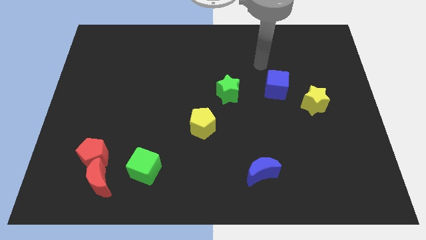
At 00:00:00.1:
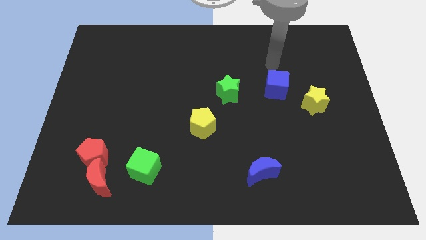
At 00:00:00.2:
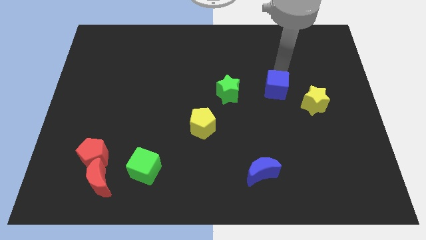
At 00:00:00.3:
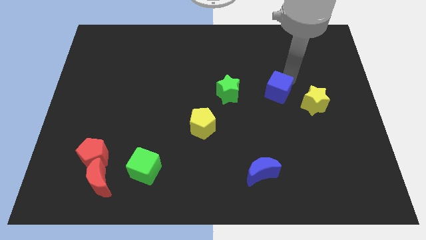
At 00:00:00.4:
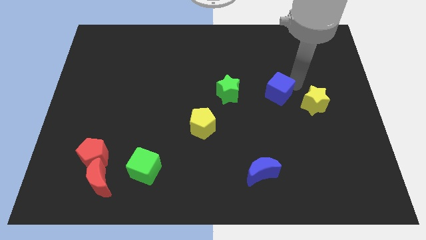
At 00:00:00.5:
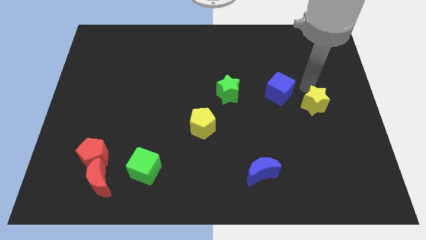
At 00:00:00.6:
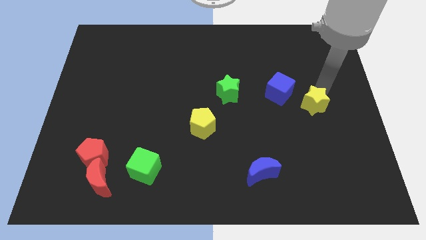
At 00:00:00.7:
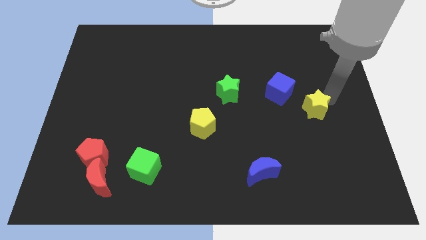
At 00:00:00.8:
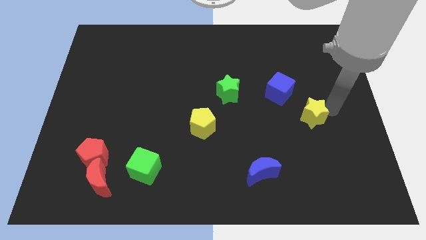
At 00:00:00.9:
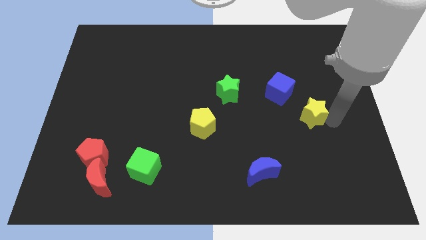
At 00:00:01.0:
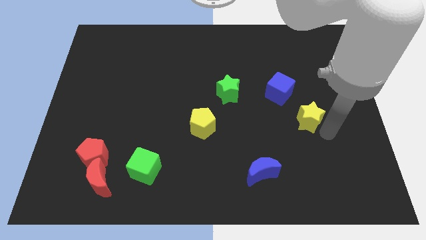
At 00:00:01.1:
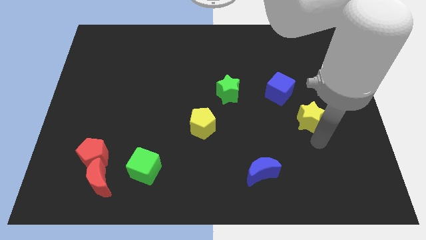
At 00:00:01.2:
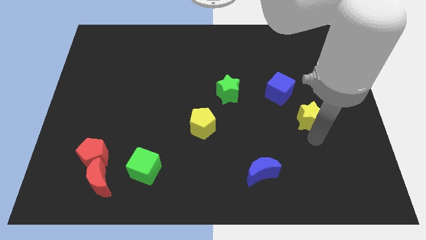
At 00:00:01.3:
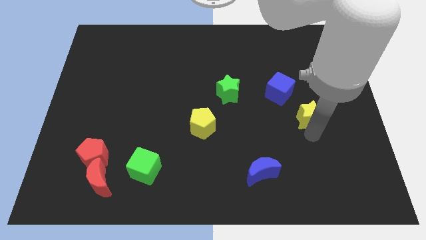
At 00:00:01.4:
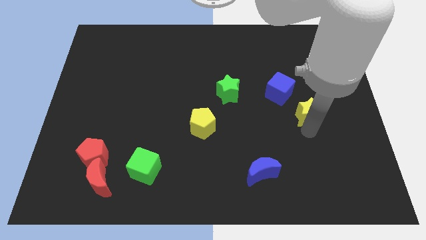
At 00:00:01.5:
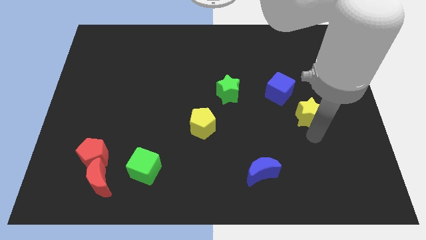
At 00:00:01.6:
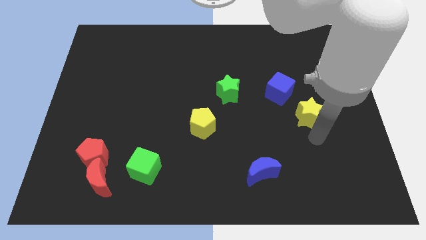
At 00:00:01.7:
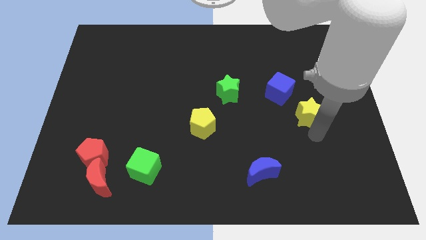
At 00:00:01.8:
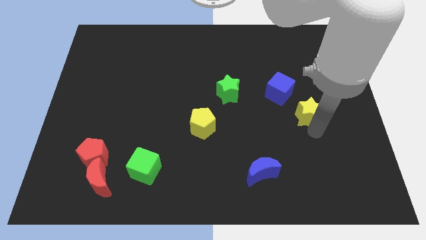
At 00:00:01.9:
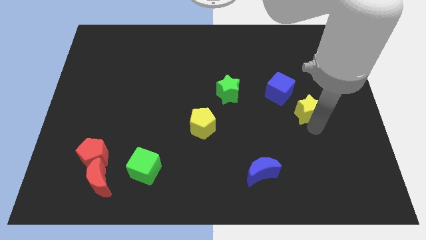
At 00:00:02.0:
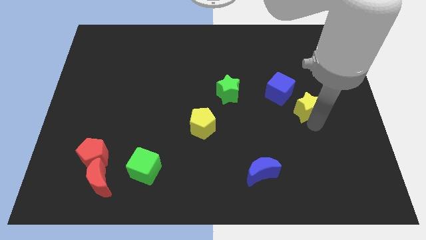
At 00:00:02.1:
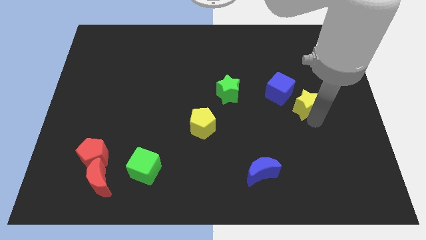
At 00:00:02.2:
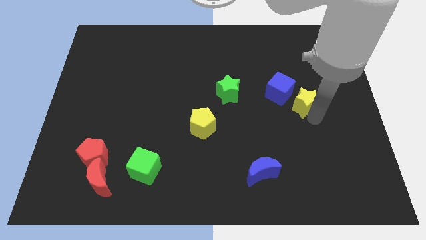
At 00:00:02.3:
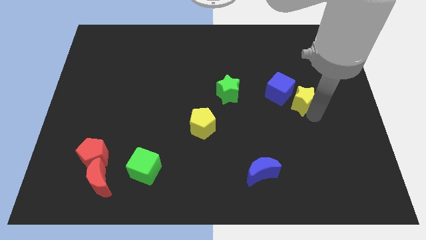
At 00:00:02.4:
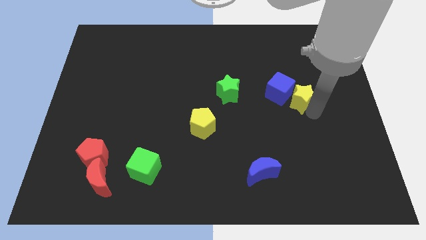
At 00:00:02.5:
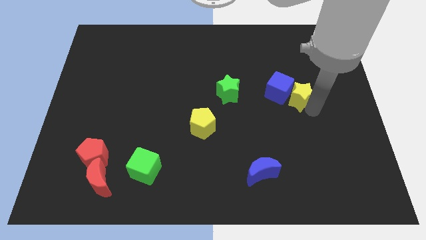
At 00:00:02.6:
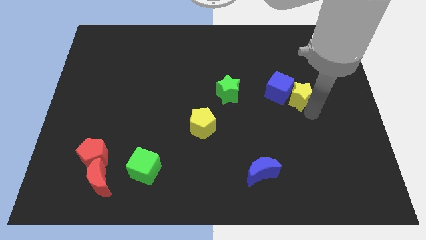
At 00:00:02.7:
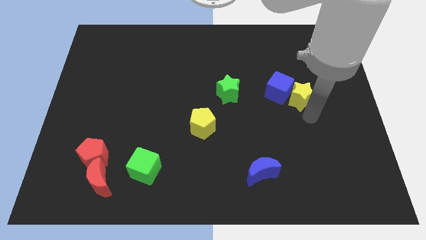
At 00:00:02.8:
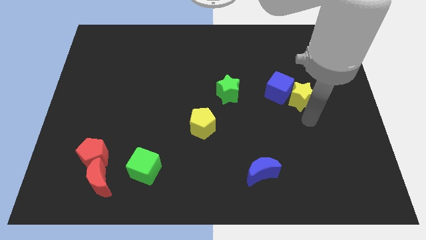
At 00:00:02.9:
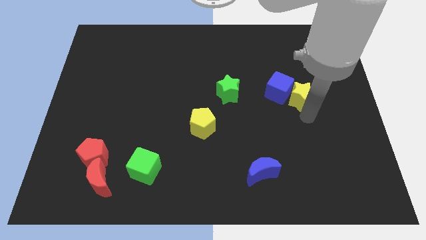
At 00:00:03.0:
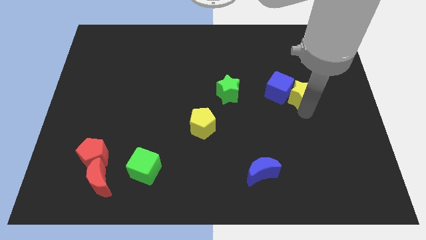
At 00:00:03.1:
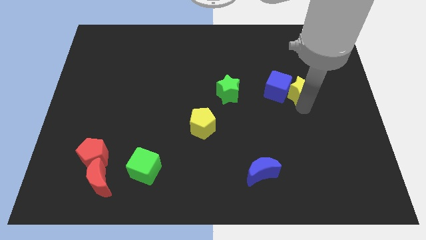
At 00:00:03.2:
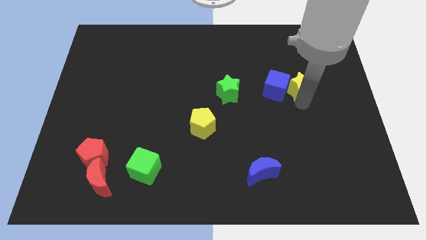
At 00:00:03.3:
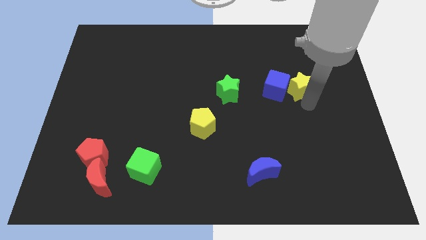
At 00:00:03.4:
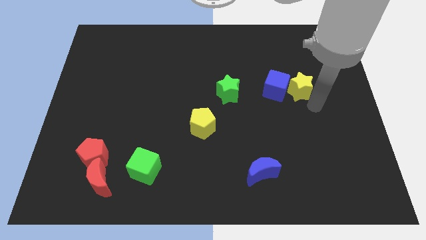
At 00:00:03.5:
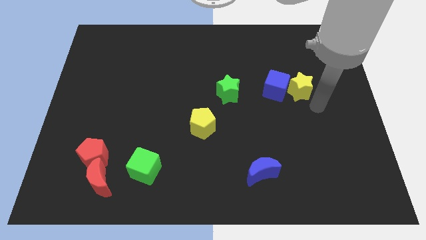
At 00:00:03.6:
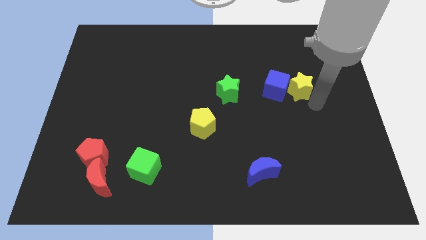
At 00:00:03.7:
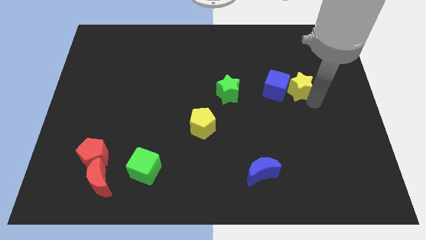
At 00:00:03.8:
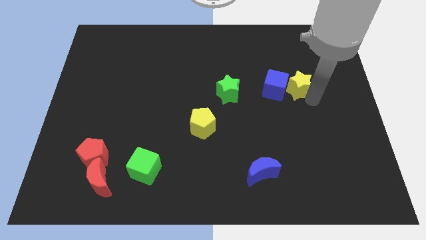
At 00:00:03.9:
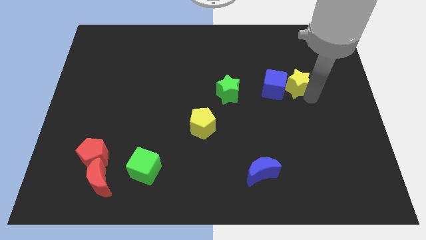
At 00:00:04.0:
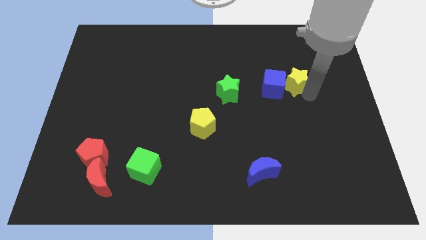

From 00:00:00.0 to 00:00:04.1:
slightly slide the yellow star diagonally up and left

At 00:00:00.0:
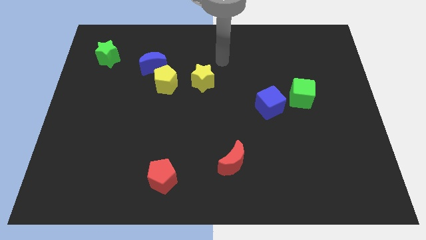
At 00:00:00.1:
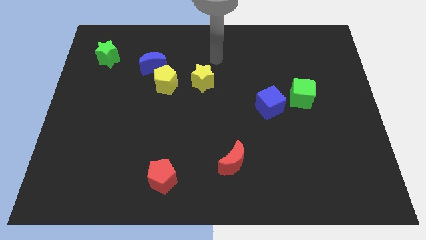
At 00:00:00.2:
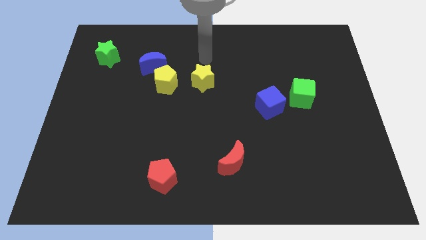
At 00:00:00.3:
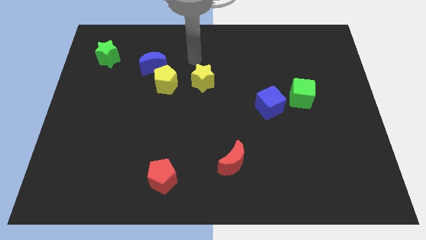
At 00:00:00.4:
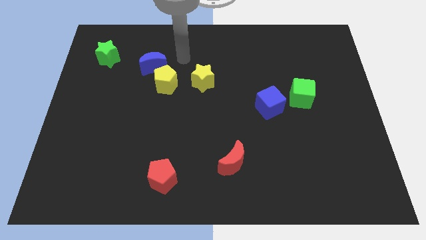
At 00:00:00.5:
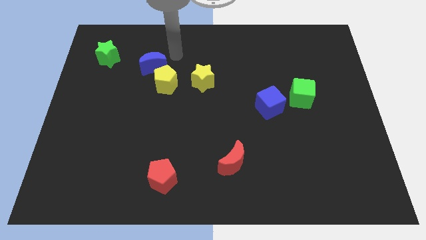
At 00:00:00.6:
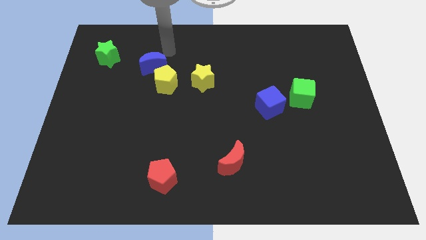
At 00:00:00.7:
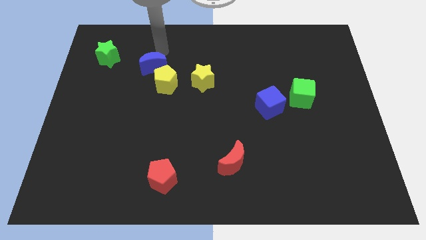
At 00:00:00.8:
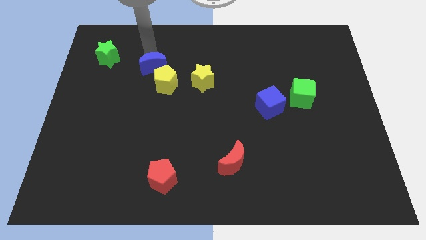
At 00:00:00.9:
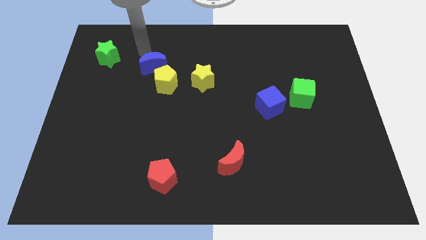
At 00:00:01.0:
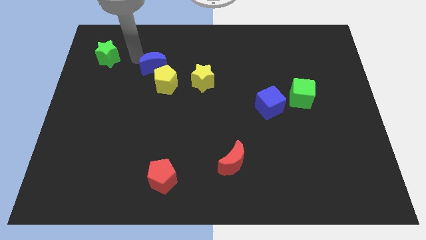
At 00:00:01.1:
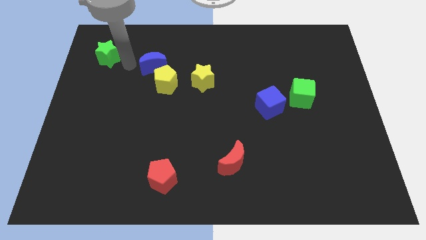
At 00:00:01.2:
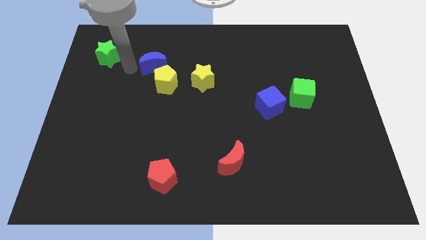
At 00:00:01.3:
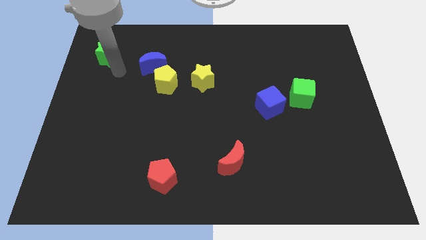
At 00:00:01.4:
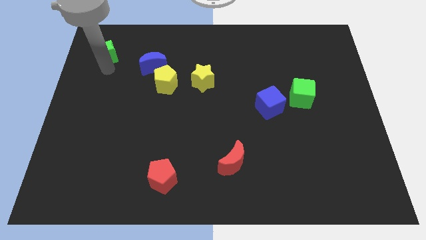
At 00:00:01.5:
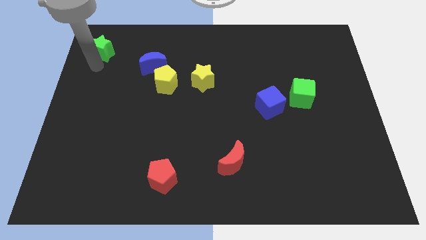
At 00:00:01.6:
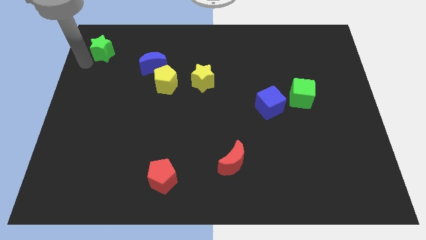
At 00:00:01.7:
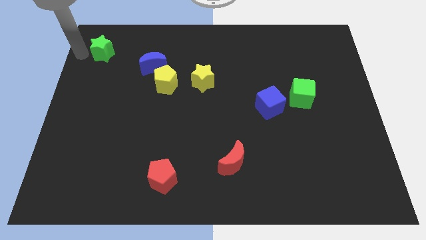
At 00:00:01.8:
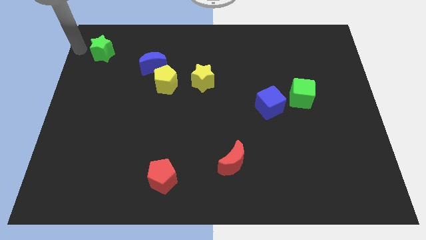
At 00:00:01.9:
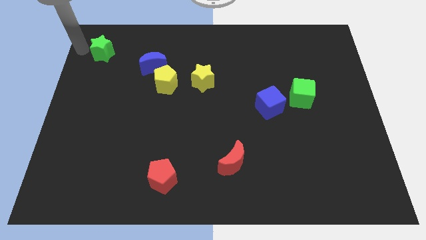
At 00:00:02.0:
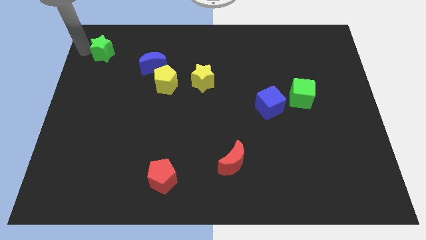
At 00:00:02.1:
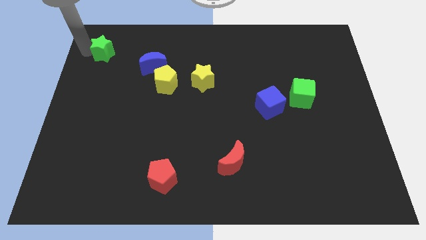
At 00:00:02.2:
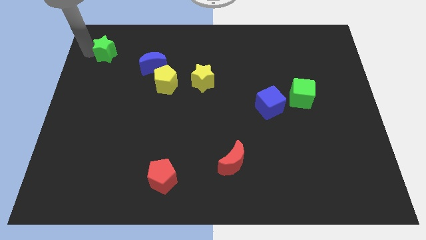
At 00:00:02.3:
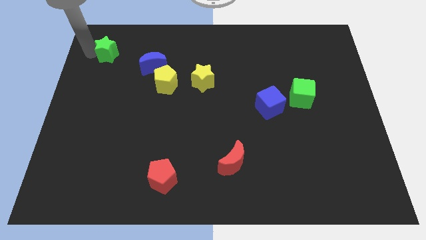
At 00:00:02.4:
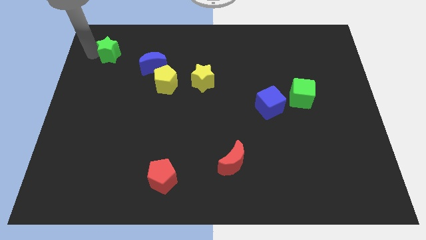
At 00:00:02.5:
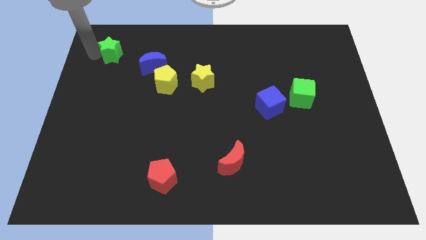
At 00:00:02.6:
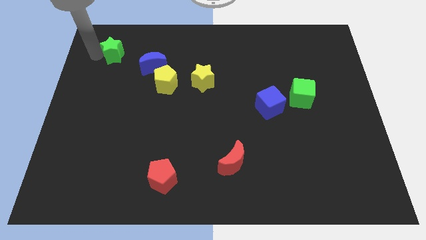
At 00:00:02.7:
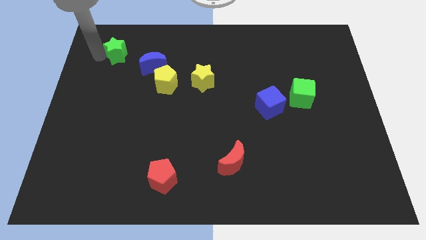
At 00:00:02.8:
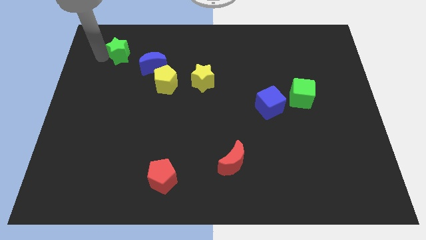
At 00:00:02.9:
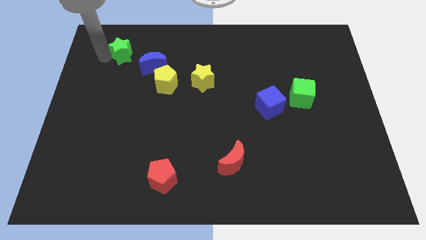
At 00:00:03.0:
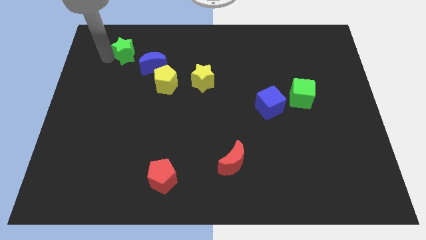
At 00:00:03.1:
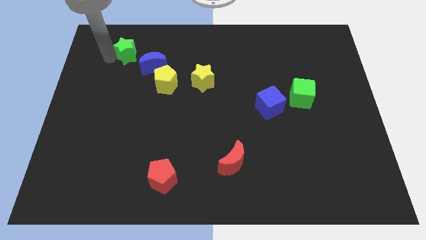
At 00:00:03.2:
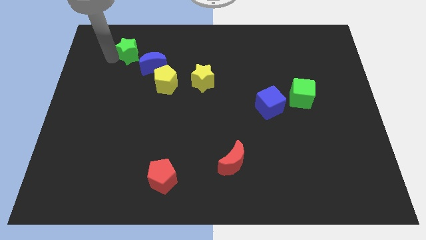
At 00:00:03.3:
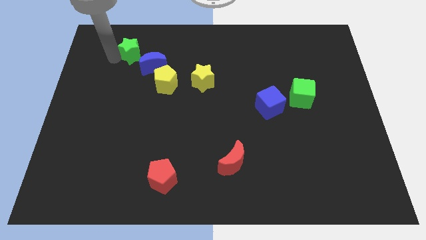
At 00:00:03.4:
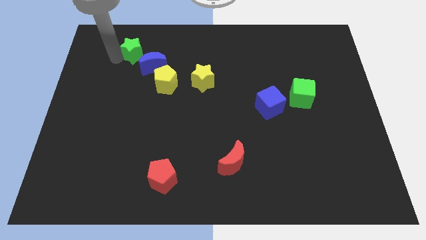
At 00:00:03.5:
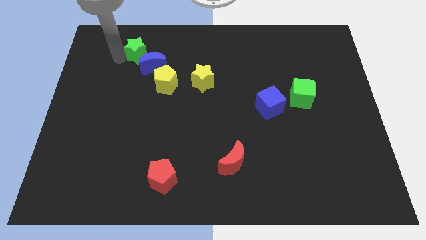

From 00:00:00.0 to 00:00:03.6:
move the green star right slightly
